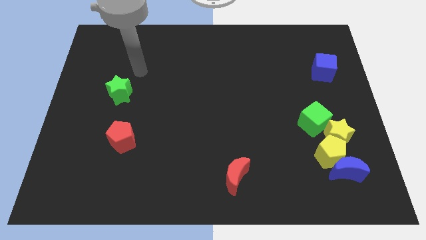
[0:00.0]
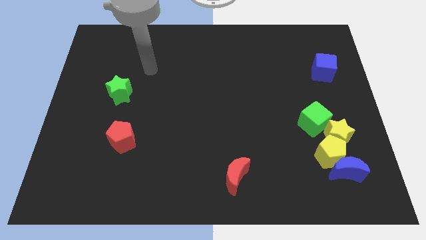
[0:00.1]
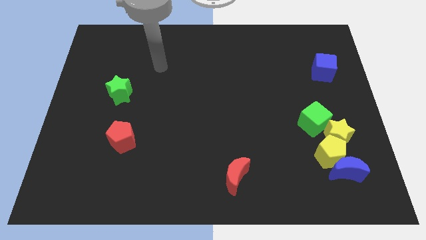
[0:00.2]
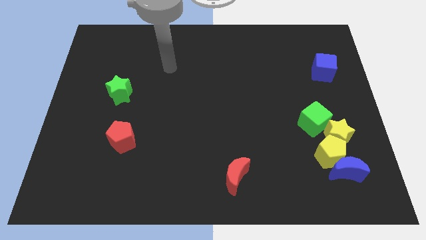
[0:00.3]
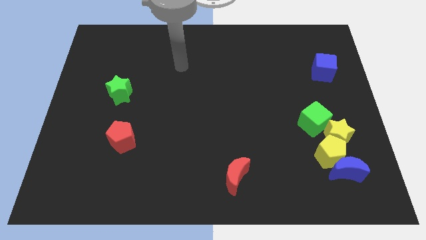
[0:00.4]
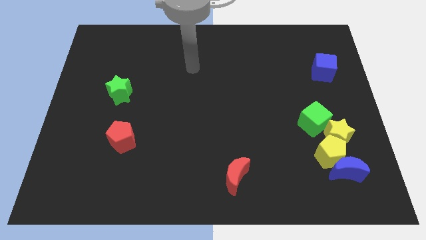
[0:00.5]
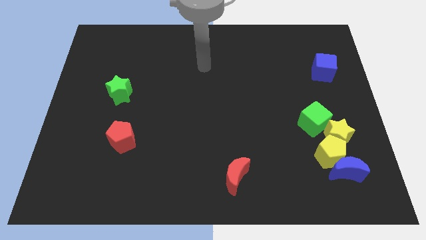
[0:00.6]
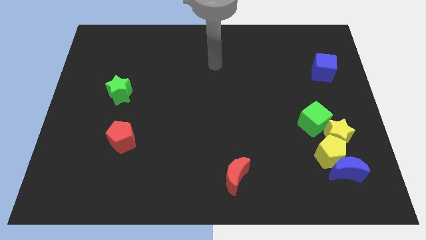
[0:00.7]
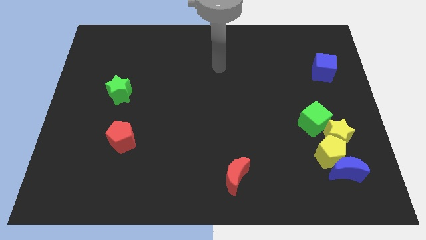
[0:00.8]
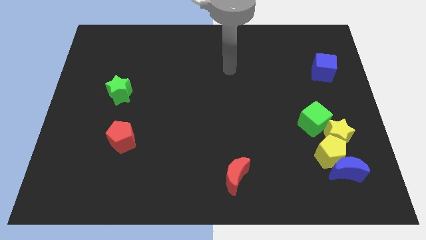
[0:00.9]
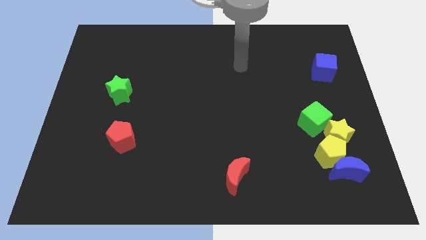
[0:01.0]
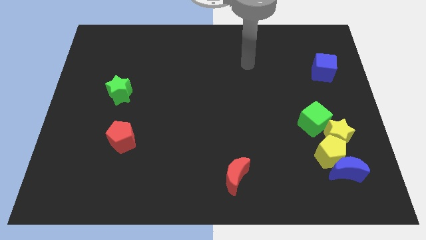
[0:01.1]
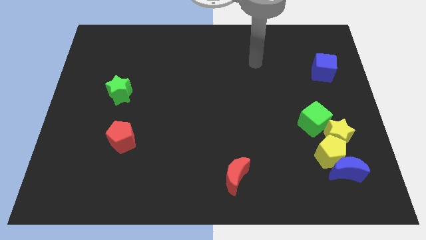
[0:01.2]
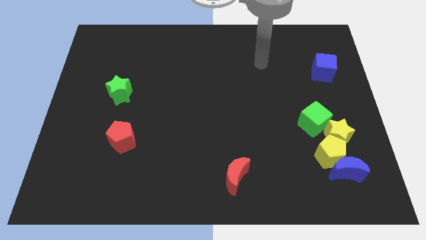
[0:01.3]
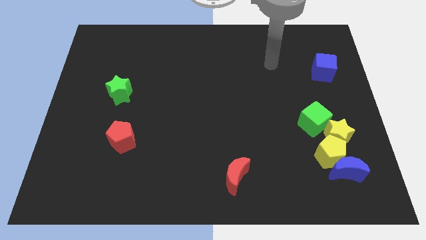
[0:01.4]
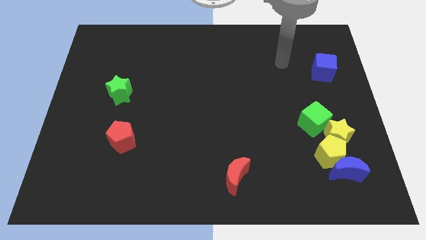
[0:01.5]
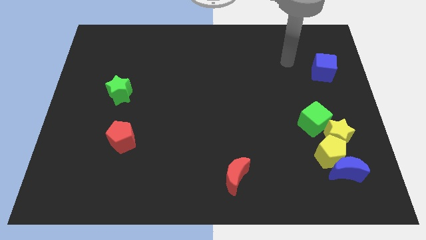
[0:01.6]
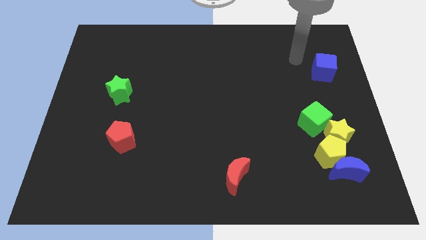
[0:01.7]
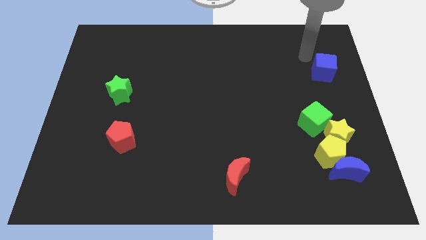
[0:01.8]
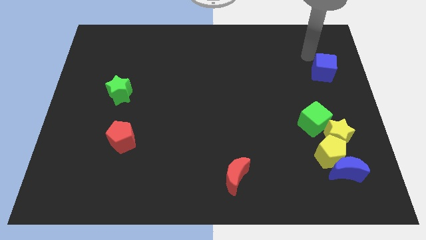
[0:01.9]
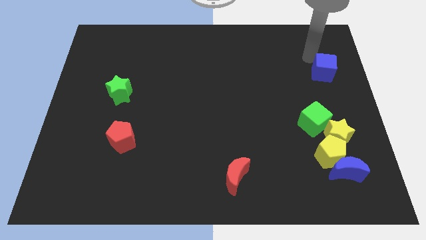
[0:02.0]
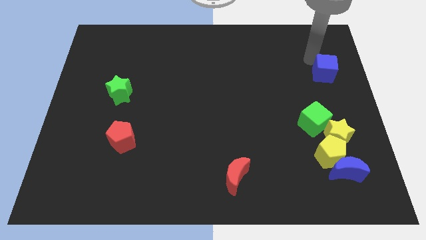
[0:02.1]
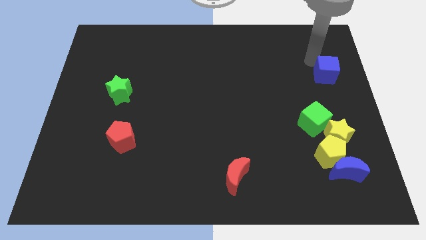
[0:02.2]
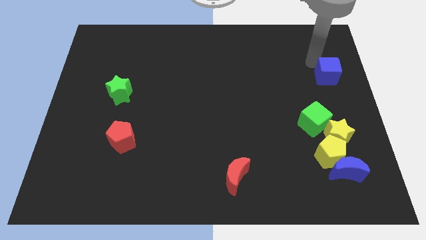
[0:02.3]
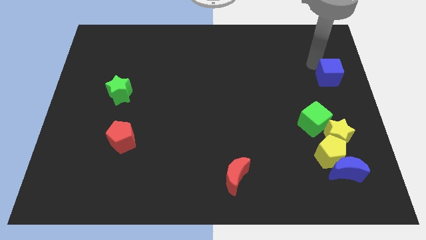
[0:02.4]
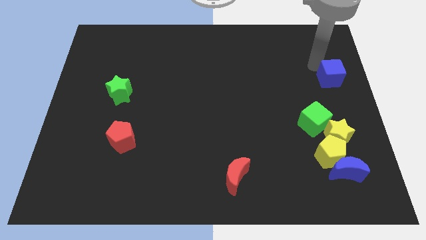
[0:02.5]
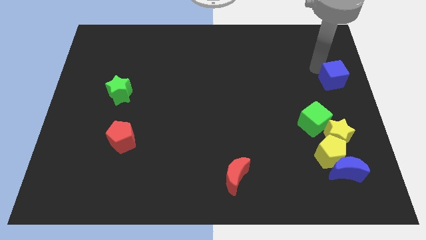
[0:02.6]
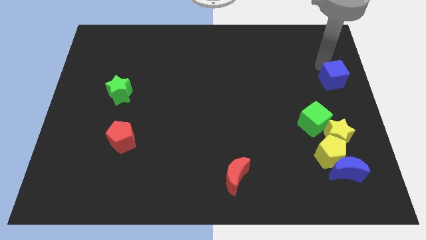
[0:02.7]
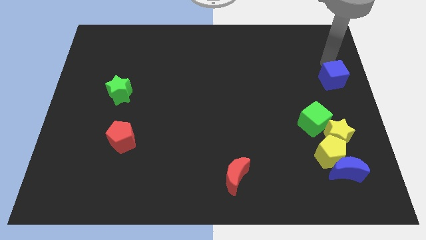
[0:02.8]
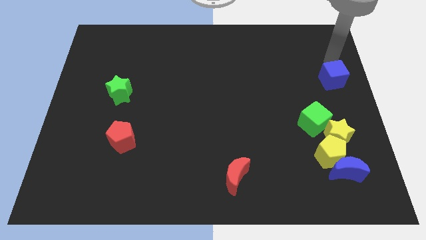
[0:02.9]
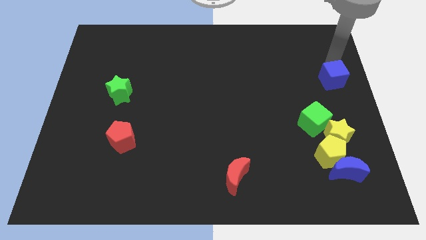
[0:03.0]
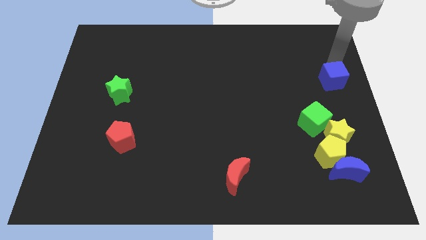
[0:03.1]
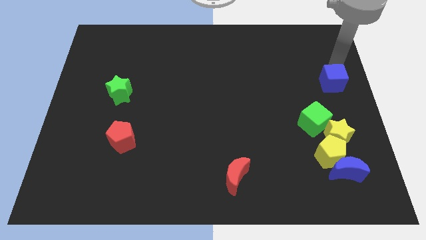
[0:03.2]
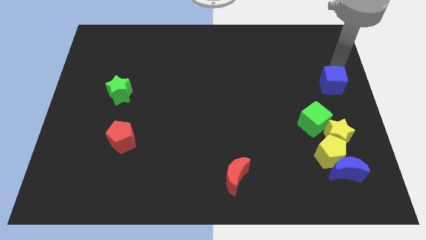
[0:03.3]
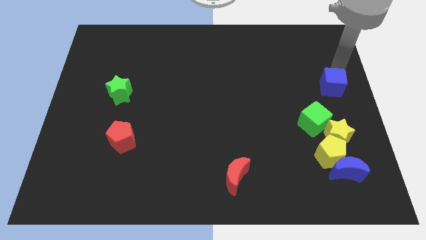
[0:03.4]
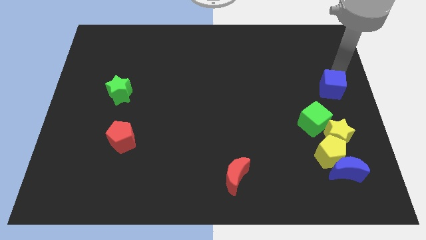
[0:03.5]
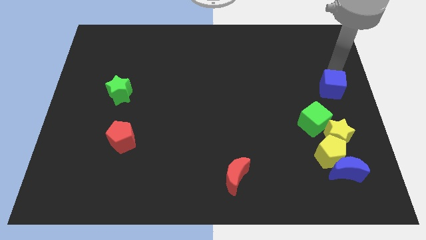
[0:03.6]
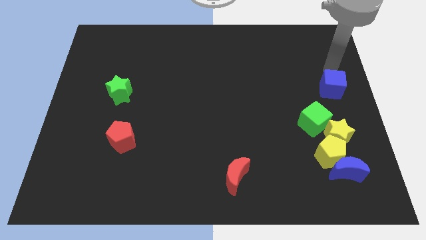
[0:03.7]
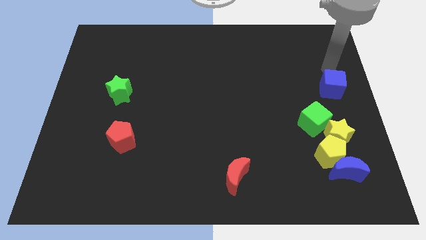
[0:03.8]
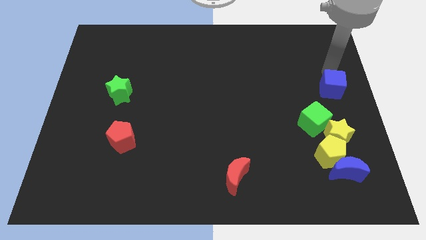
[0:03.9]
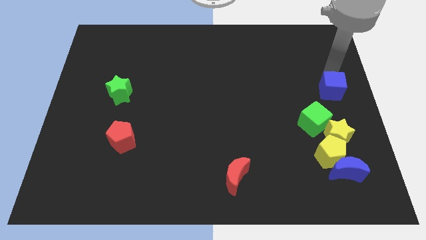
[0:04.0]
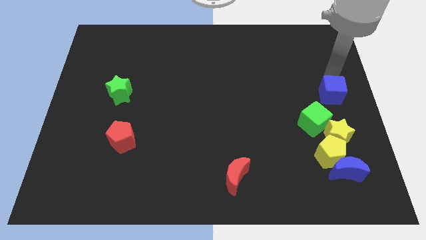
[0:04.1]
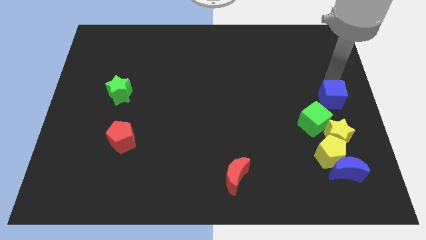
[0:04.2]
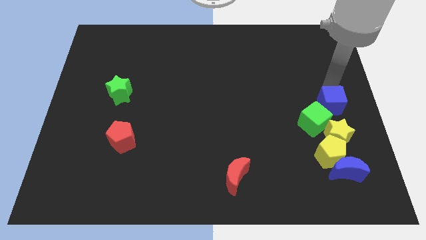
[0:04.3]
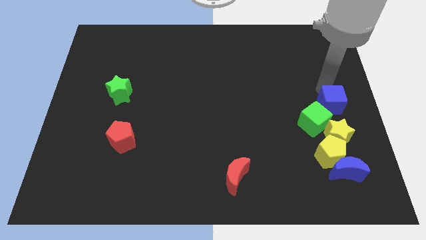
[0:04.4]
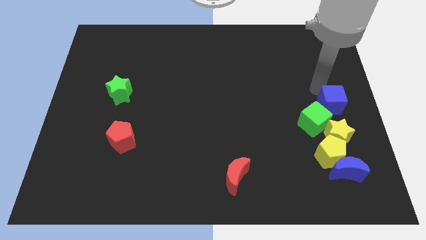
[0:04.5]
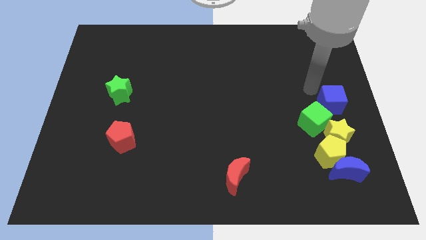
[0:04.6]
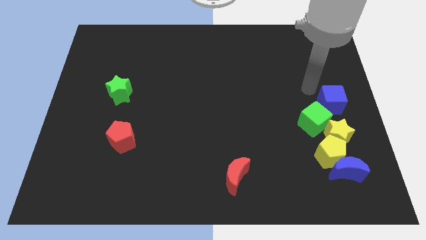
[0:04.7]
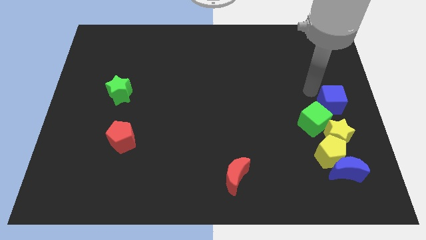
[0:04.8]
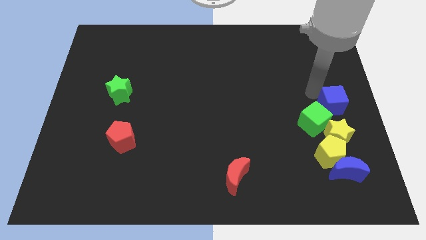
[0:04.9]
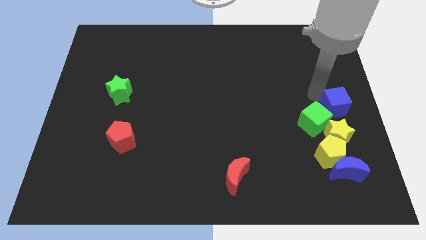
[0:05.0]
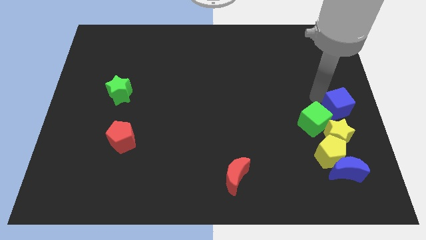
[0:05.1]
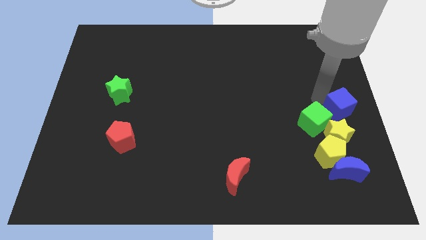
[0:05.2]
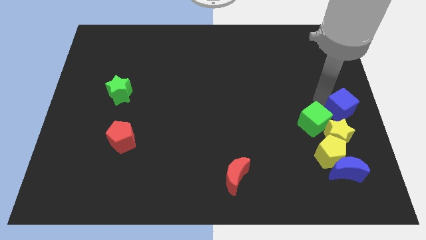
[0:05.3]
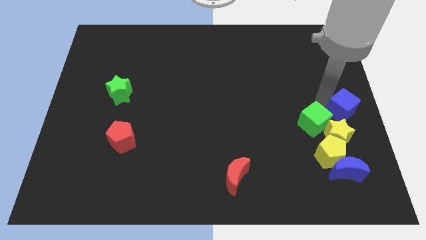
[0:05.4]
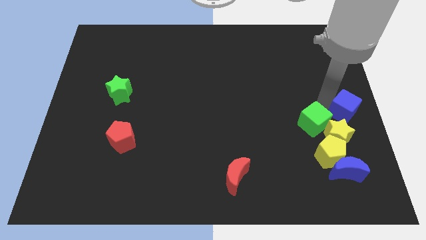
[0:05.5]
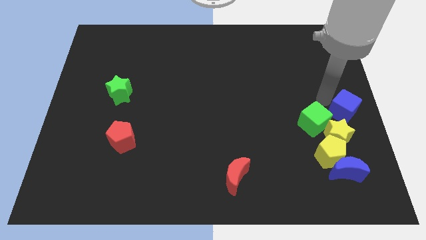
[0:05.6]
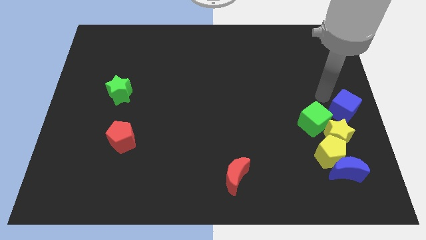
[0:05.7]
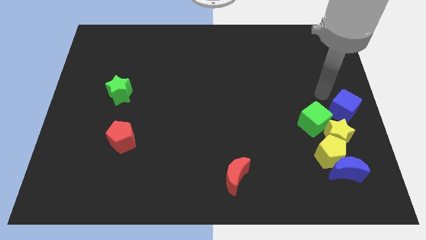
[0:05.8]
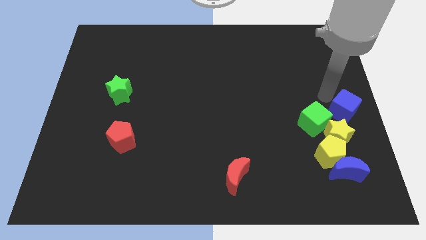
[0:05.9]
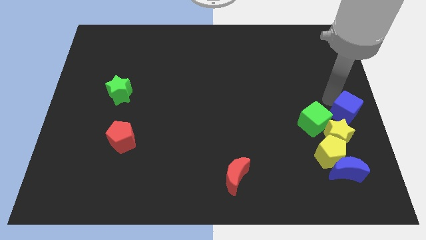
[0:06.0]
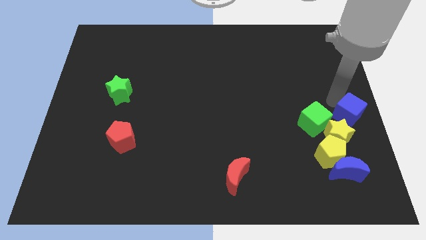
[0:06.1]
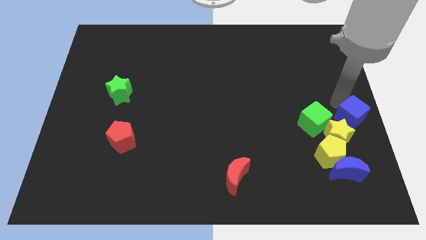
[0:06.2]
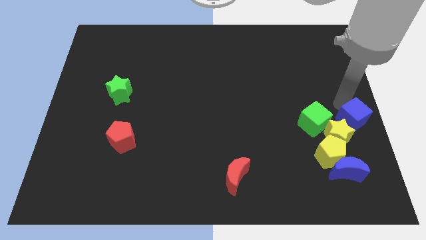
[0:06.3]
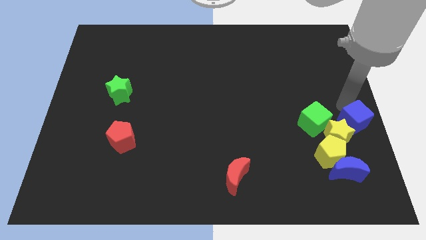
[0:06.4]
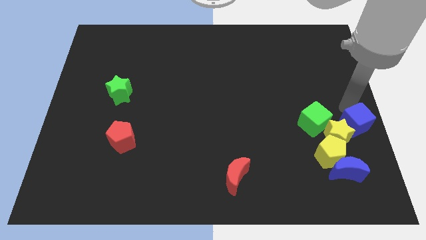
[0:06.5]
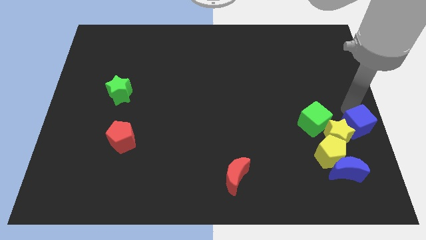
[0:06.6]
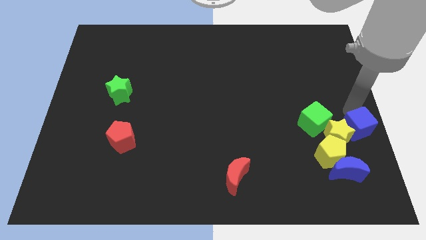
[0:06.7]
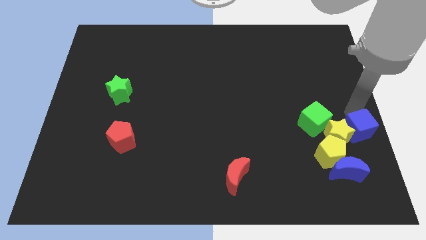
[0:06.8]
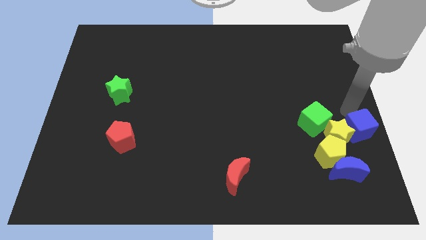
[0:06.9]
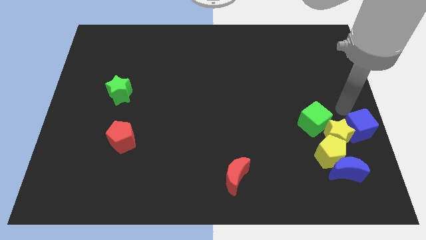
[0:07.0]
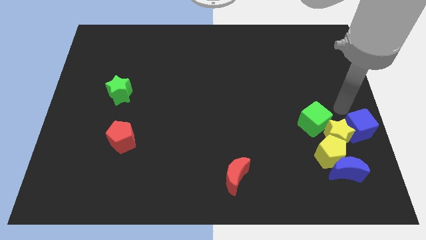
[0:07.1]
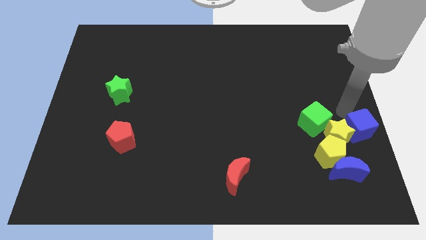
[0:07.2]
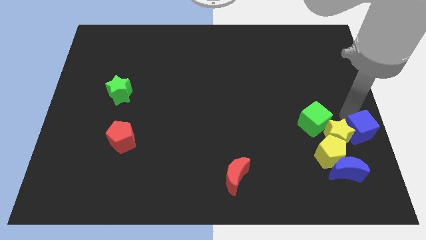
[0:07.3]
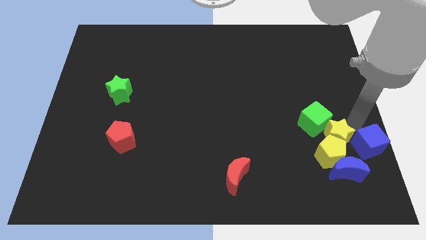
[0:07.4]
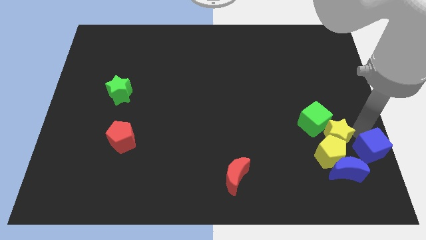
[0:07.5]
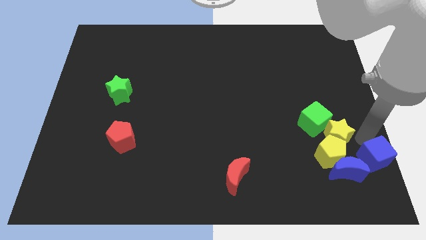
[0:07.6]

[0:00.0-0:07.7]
move the blue cube to the bottom right of the board
